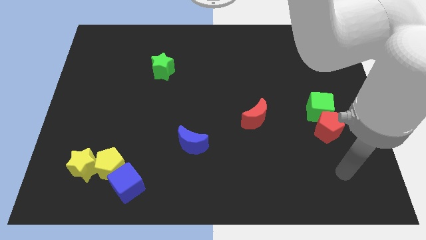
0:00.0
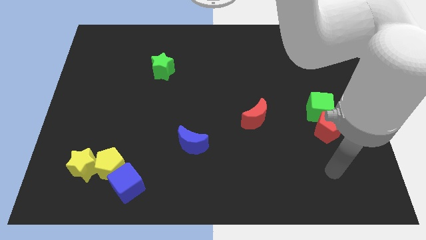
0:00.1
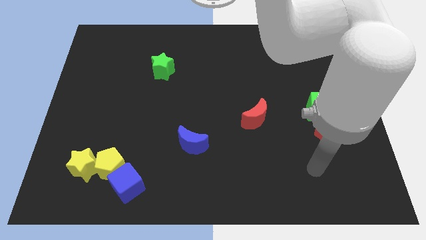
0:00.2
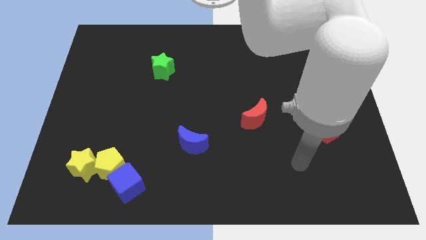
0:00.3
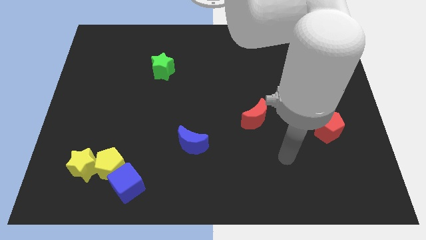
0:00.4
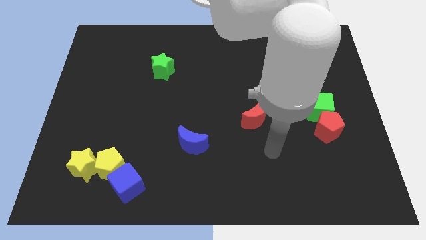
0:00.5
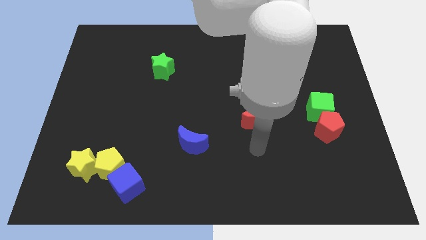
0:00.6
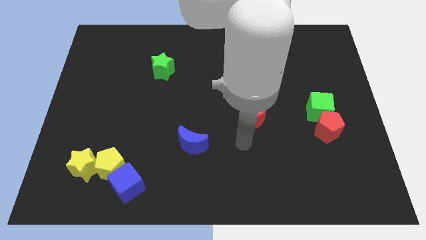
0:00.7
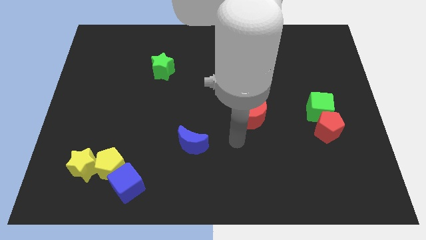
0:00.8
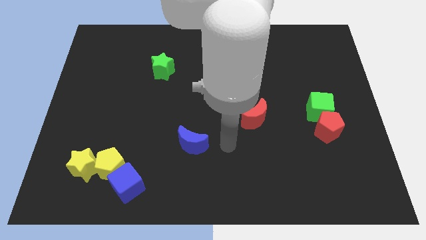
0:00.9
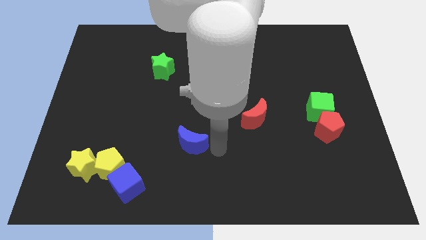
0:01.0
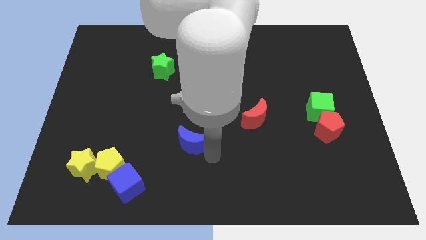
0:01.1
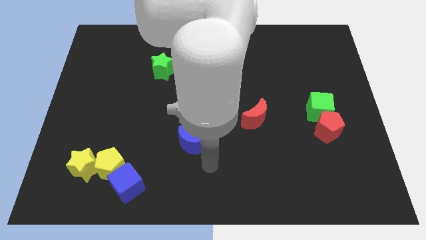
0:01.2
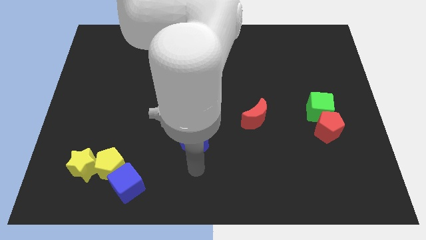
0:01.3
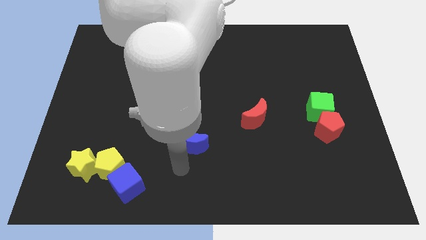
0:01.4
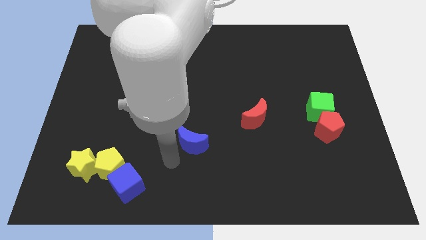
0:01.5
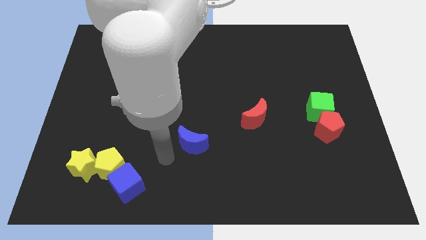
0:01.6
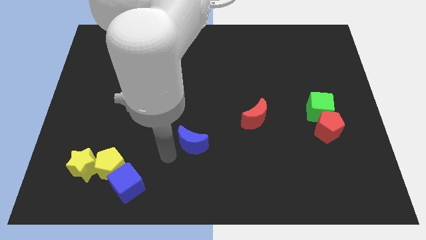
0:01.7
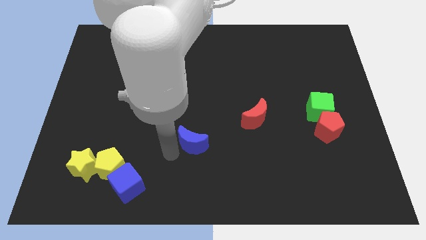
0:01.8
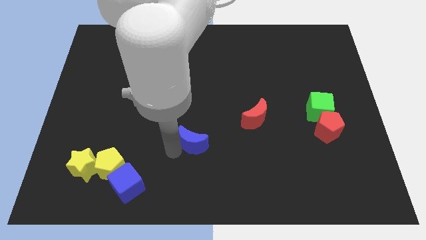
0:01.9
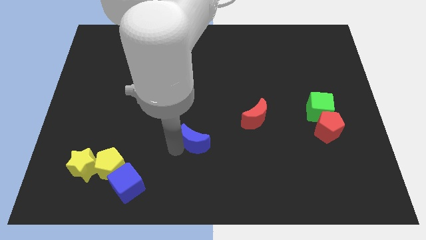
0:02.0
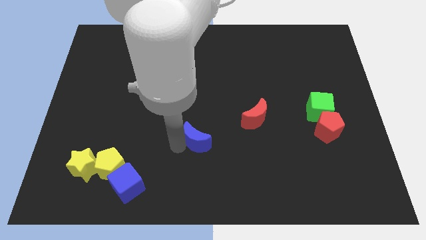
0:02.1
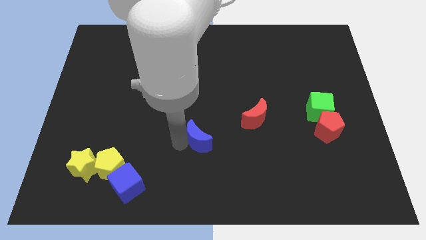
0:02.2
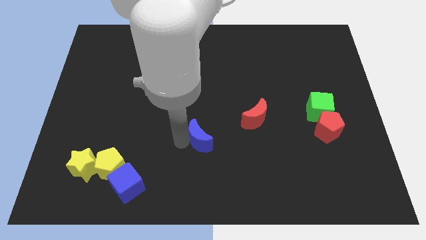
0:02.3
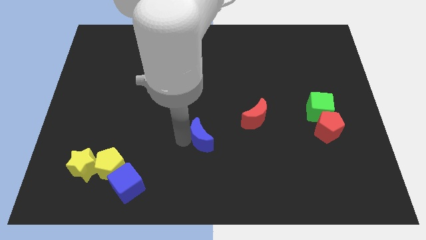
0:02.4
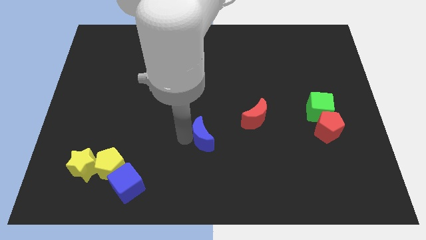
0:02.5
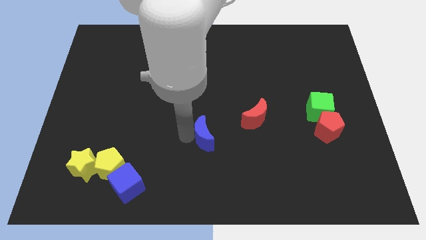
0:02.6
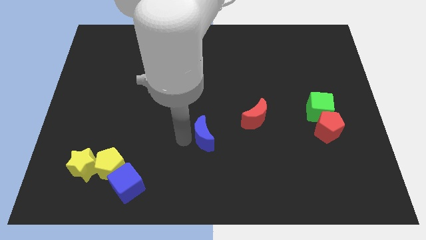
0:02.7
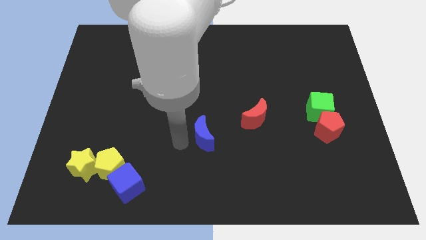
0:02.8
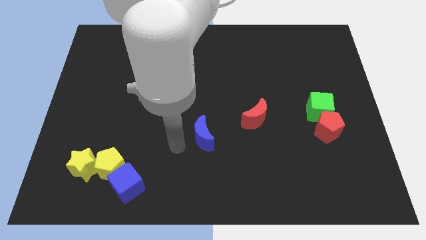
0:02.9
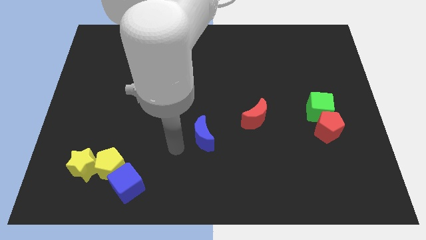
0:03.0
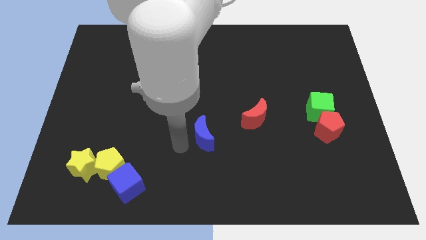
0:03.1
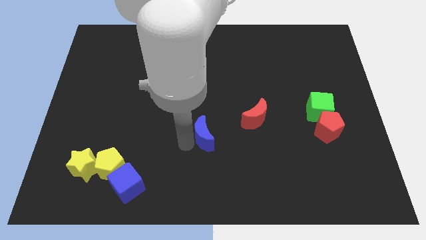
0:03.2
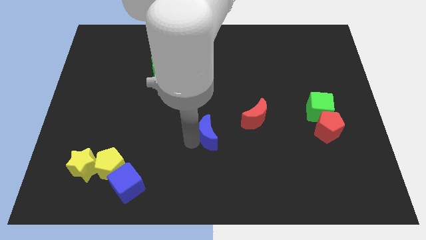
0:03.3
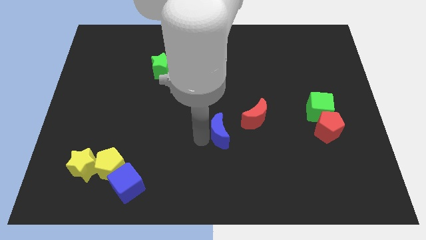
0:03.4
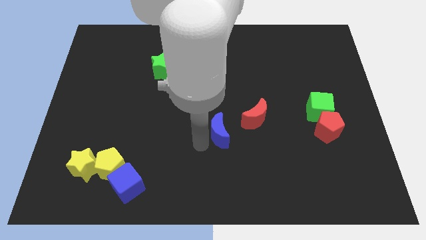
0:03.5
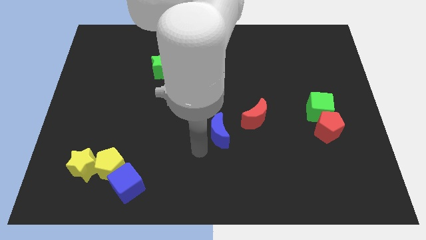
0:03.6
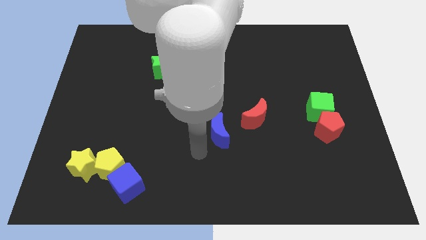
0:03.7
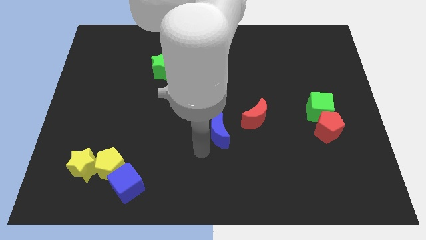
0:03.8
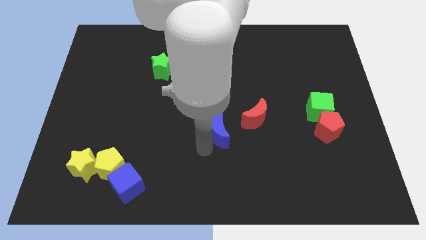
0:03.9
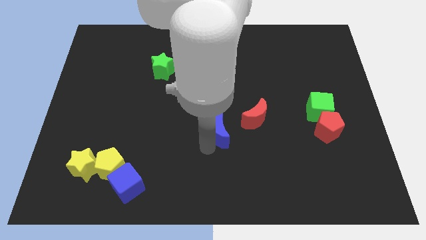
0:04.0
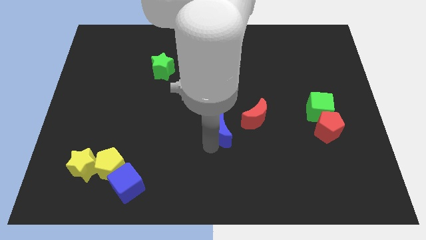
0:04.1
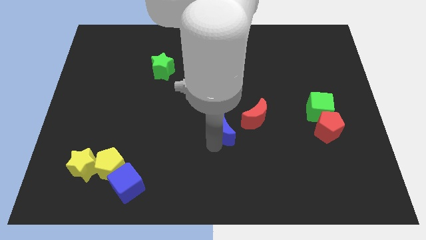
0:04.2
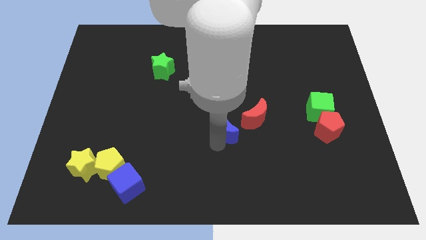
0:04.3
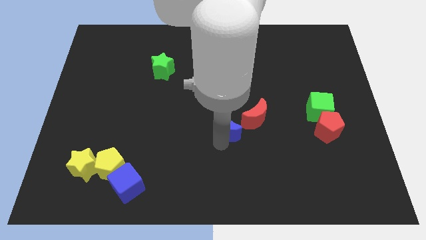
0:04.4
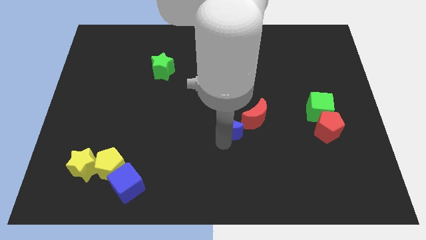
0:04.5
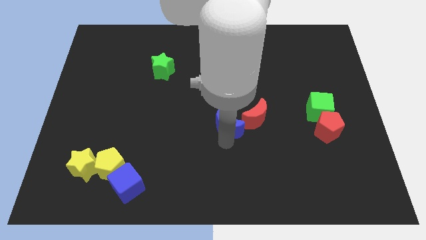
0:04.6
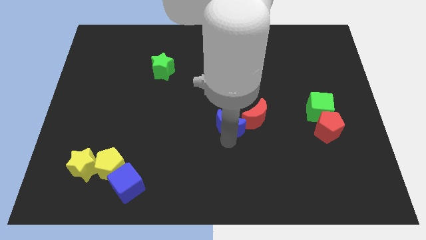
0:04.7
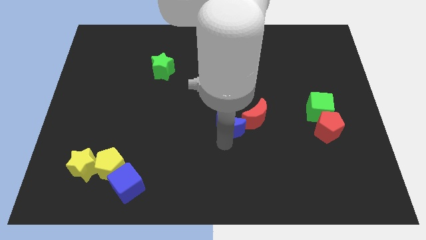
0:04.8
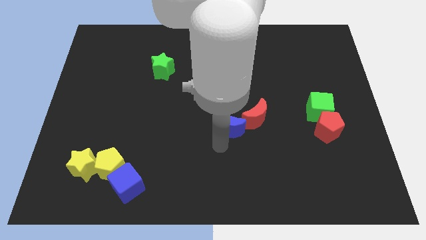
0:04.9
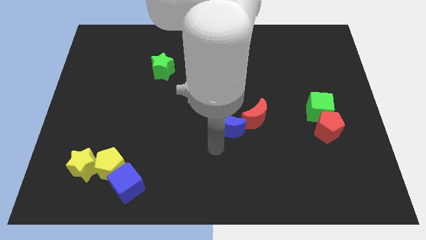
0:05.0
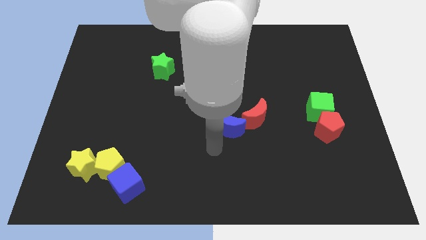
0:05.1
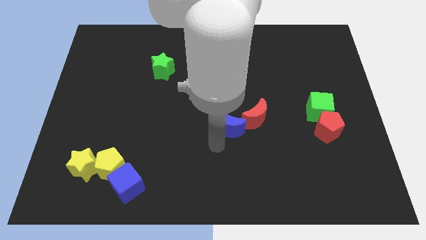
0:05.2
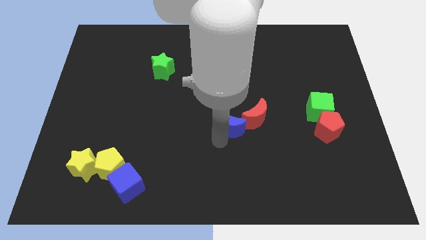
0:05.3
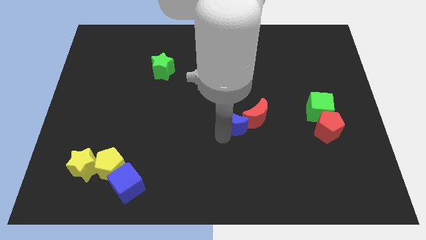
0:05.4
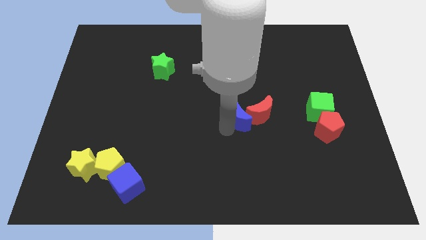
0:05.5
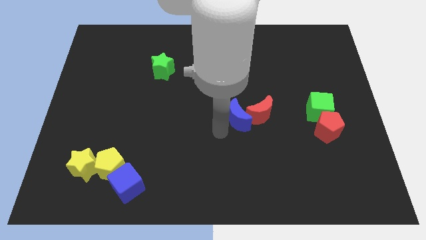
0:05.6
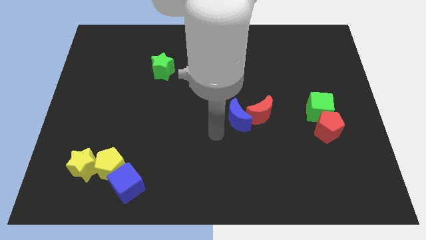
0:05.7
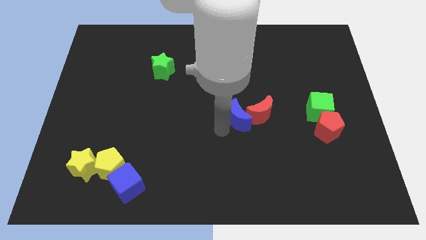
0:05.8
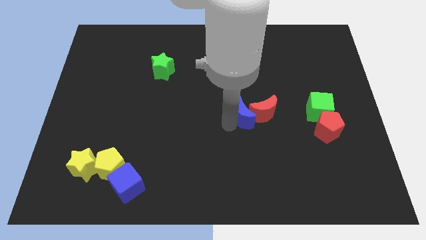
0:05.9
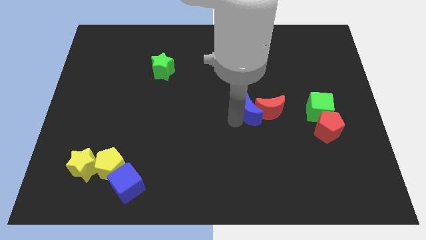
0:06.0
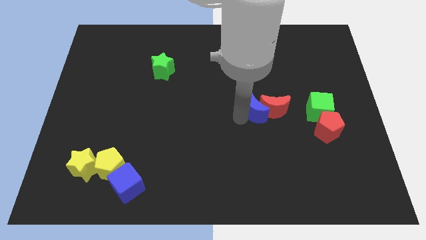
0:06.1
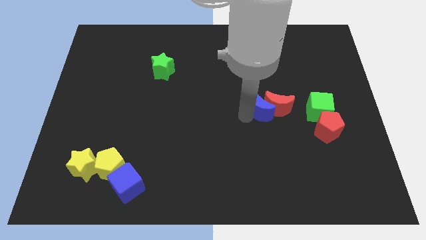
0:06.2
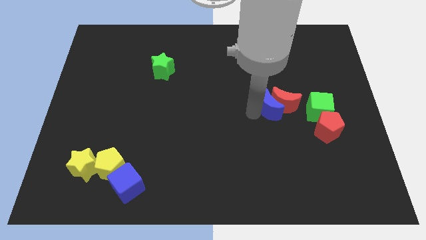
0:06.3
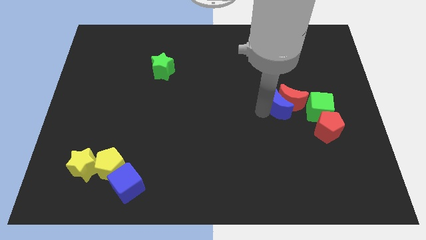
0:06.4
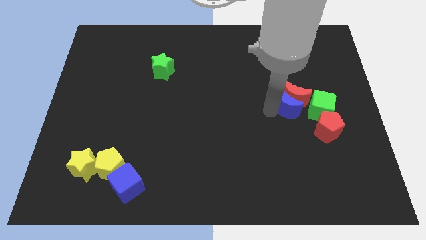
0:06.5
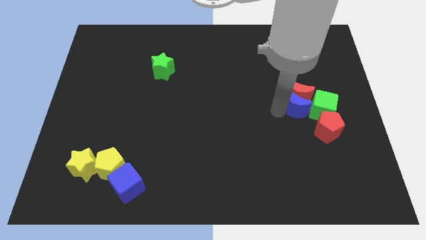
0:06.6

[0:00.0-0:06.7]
put the blue moon diagonally up and to the left of the green cube

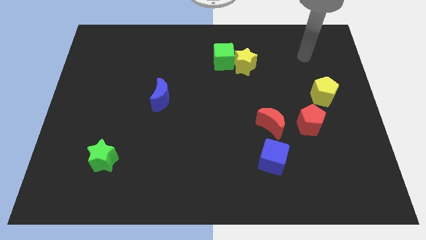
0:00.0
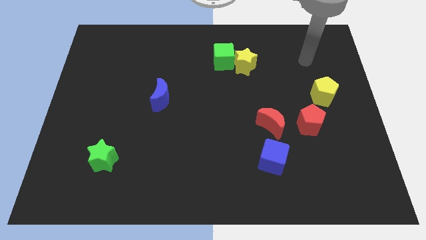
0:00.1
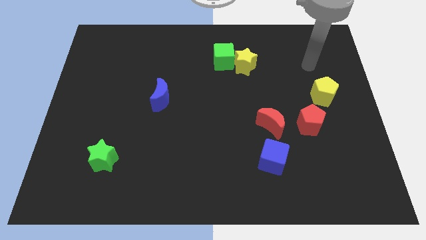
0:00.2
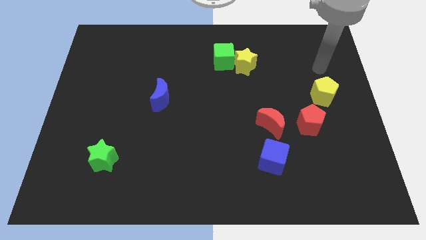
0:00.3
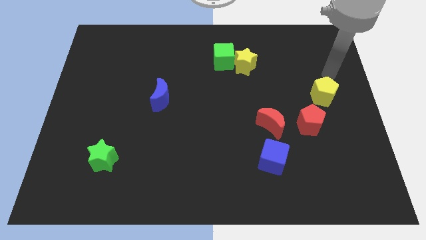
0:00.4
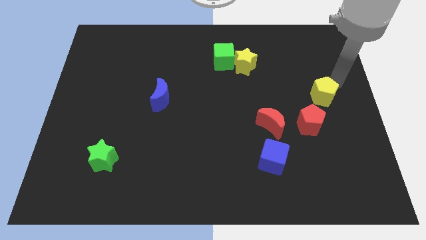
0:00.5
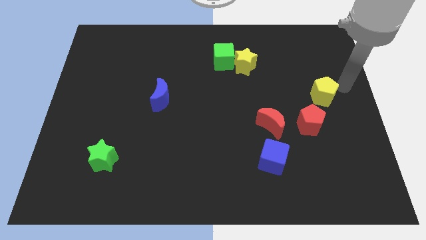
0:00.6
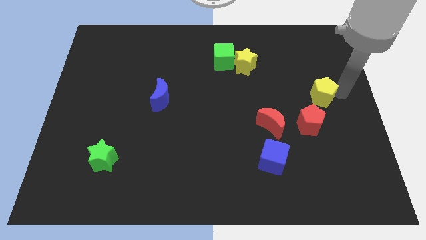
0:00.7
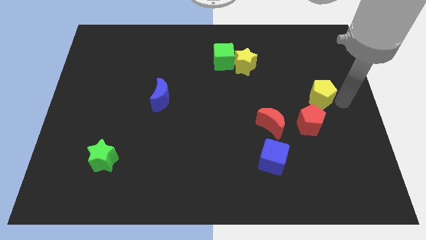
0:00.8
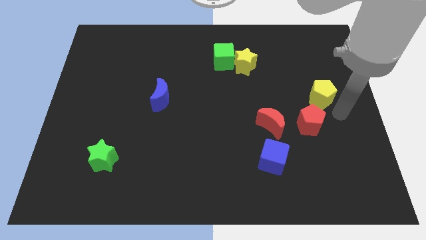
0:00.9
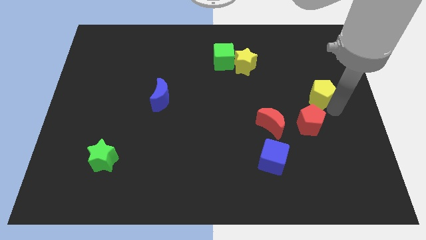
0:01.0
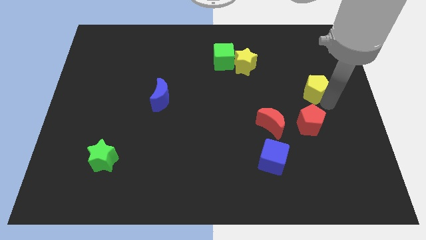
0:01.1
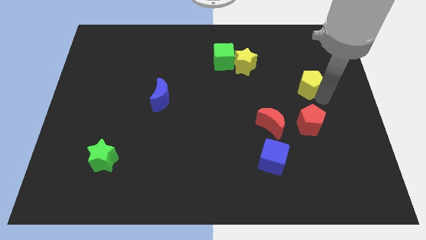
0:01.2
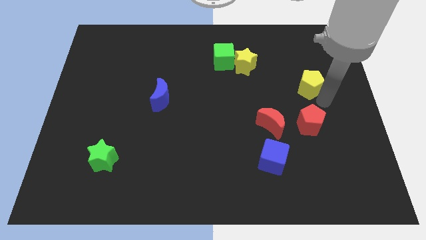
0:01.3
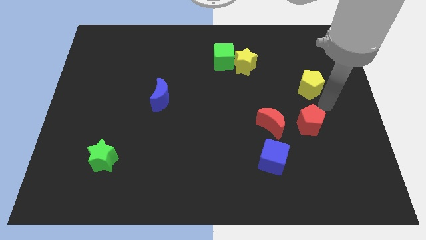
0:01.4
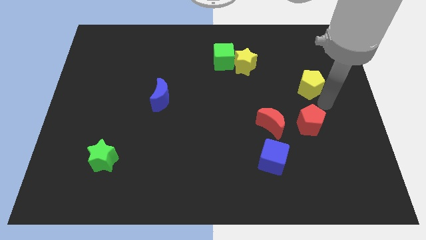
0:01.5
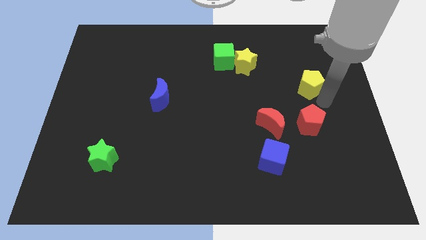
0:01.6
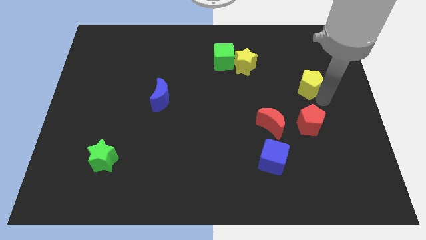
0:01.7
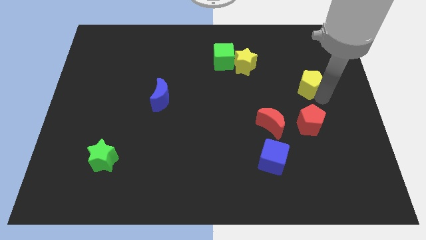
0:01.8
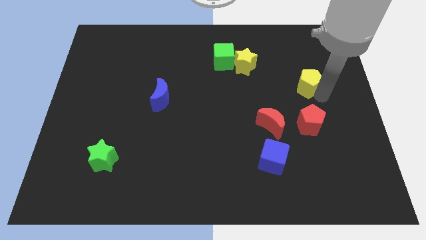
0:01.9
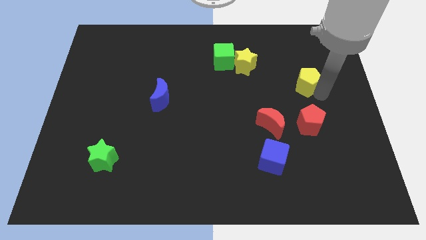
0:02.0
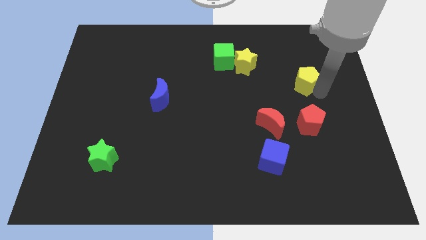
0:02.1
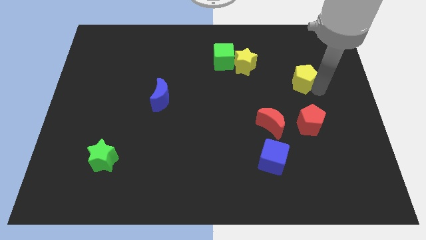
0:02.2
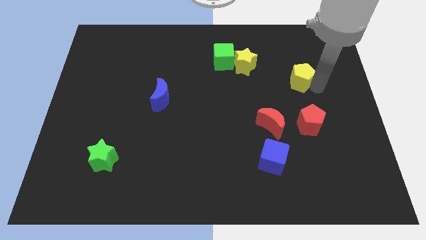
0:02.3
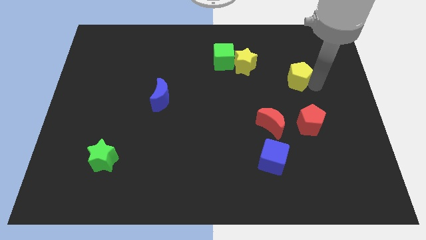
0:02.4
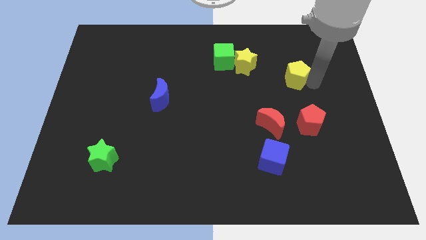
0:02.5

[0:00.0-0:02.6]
slide the yellow pentagon just right of the yellow star
